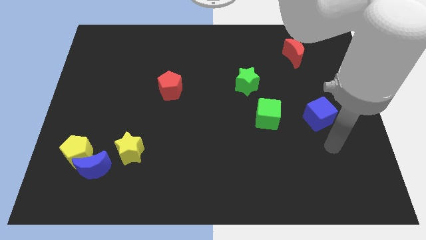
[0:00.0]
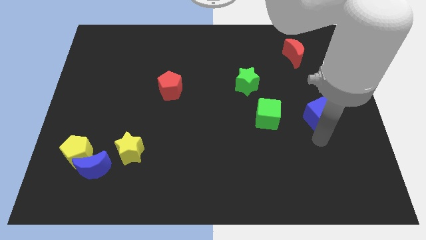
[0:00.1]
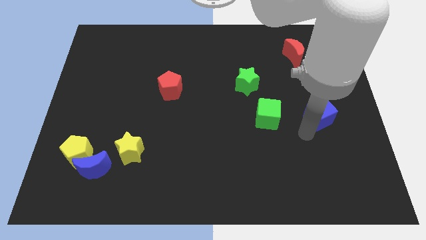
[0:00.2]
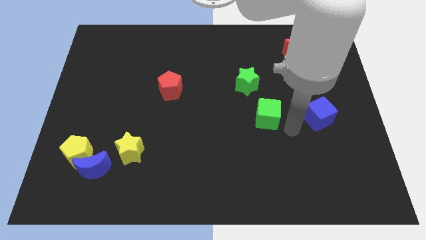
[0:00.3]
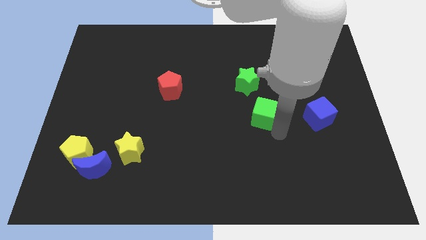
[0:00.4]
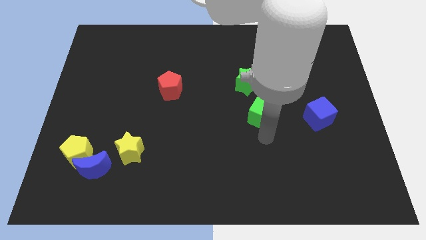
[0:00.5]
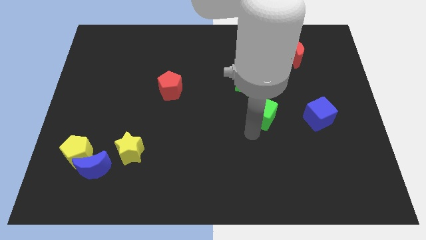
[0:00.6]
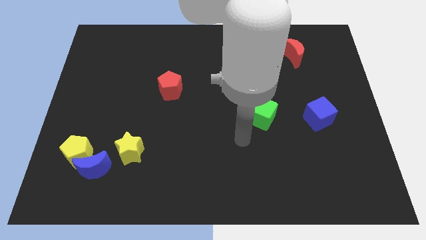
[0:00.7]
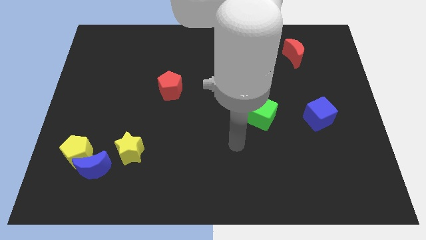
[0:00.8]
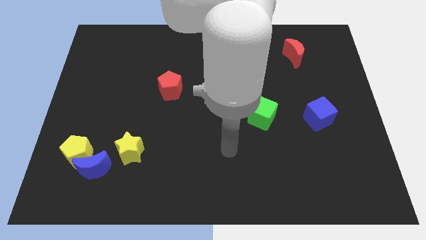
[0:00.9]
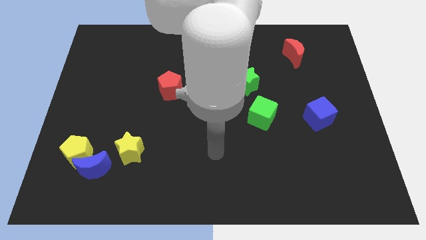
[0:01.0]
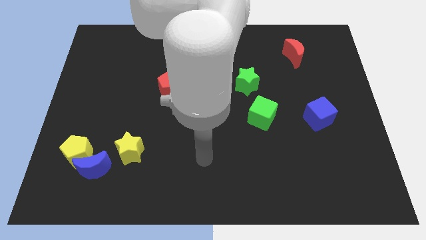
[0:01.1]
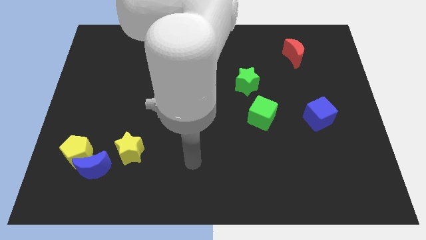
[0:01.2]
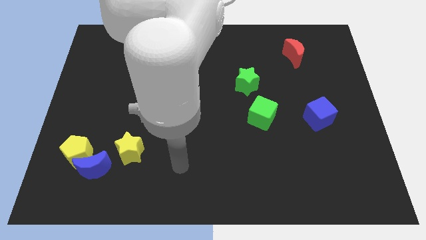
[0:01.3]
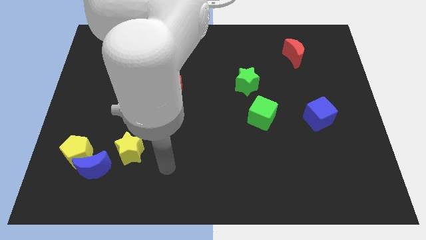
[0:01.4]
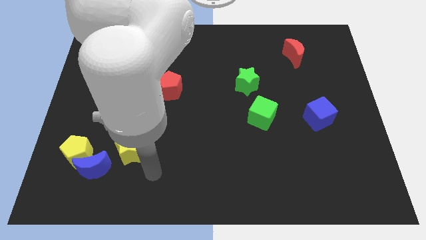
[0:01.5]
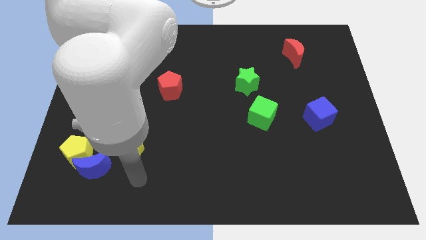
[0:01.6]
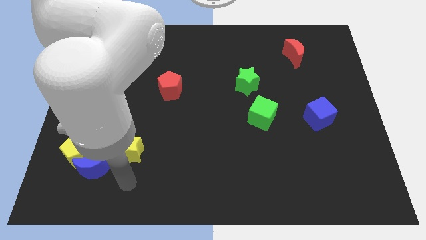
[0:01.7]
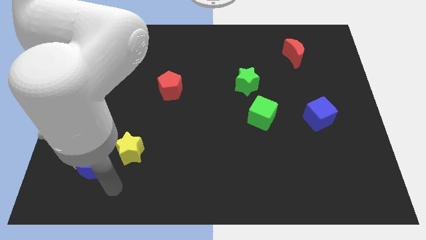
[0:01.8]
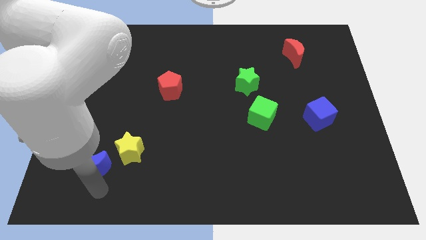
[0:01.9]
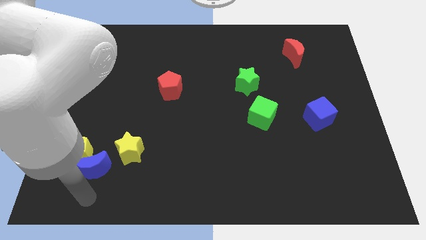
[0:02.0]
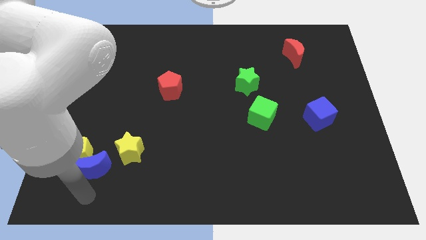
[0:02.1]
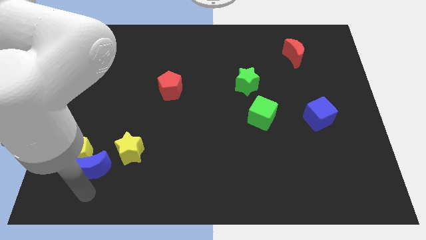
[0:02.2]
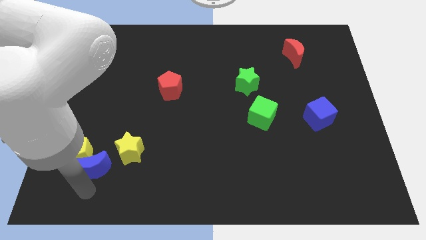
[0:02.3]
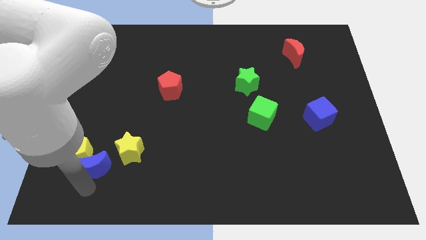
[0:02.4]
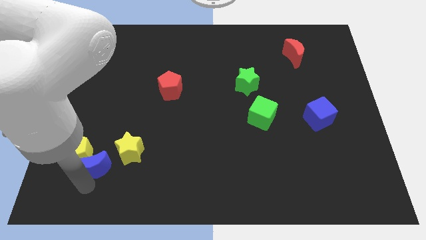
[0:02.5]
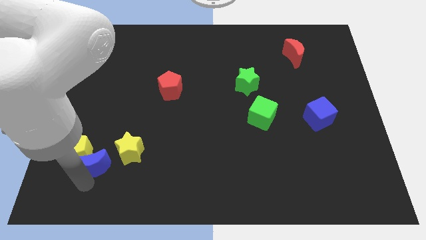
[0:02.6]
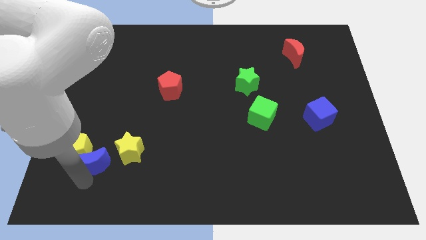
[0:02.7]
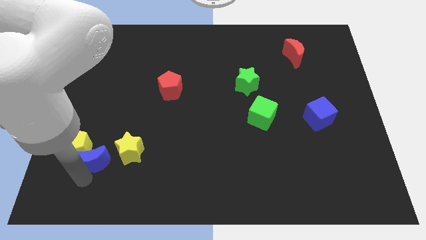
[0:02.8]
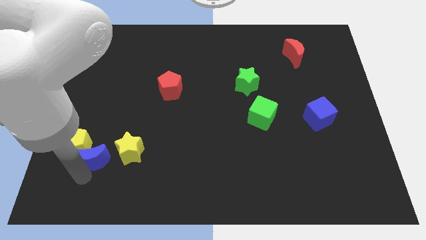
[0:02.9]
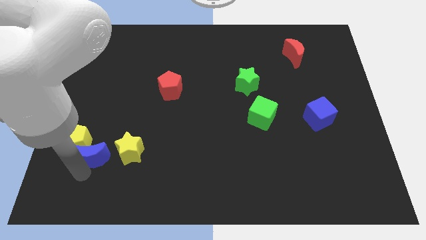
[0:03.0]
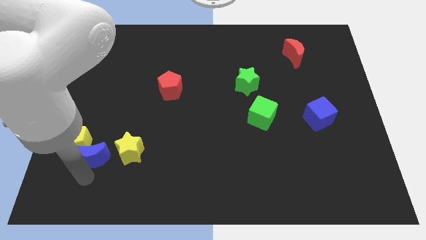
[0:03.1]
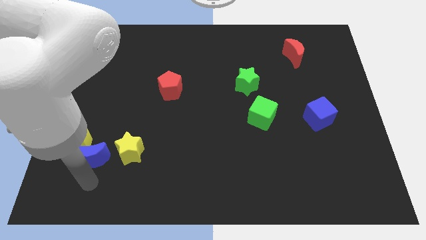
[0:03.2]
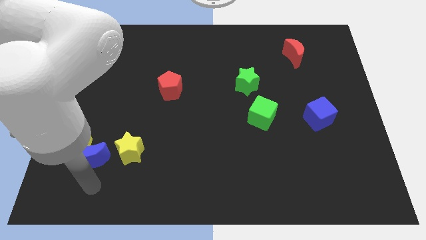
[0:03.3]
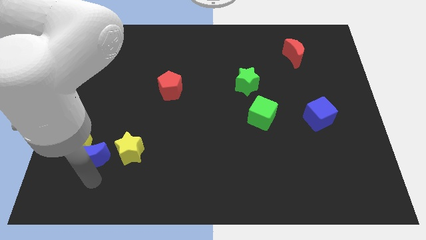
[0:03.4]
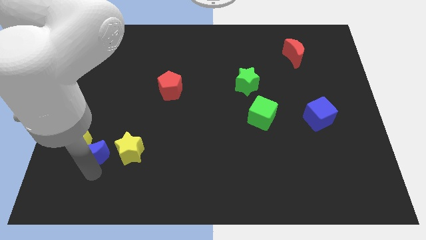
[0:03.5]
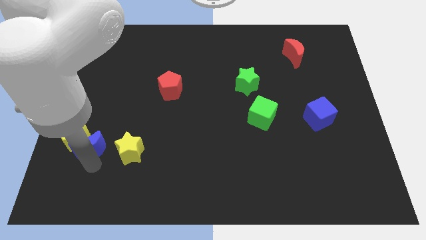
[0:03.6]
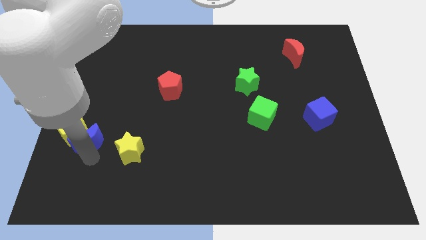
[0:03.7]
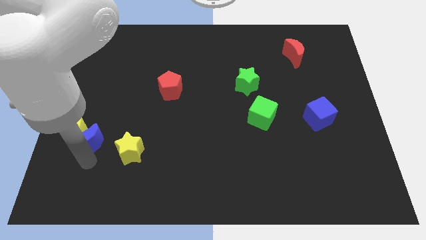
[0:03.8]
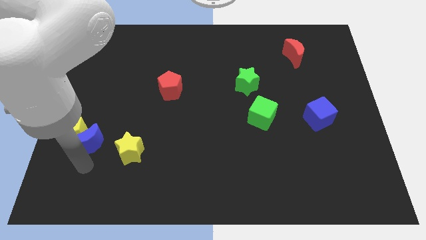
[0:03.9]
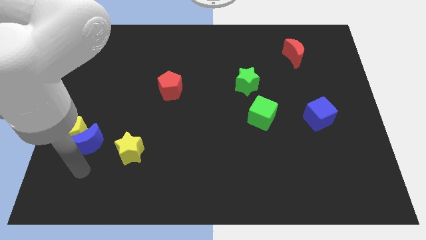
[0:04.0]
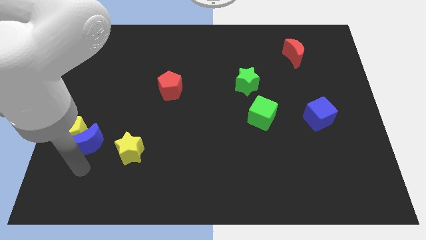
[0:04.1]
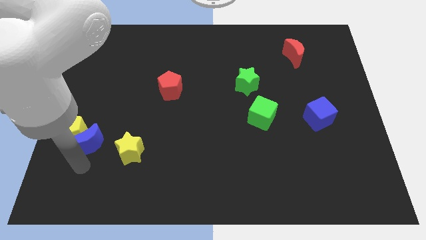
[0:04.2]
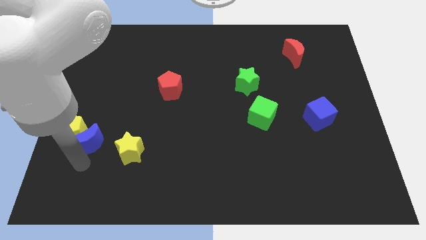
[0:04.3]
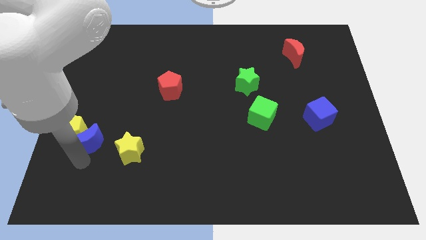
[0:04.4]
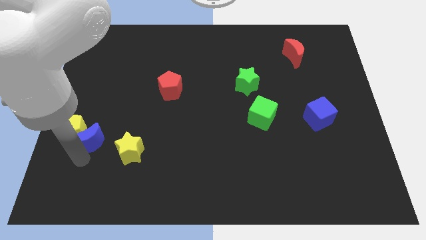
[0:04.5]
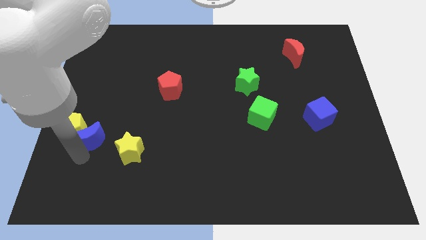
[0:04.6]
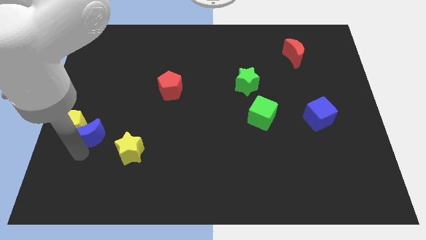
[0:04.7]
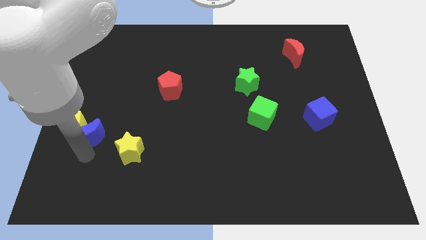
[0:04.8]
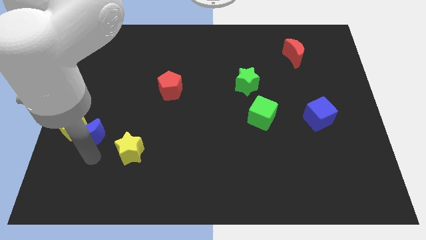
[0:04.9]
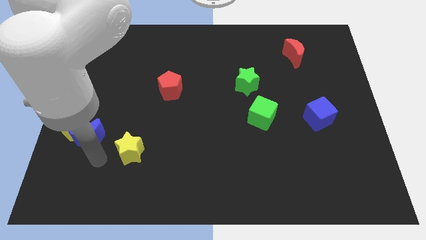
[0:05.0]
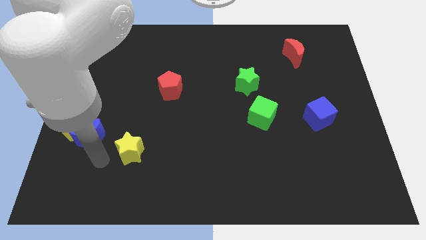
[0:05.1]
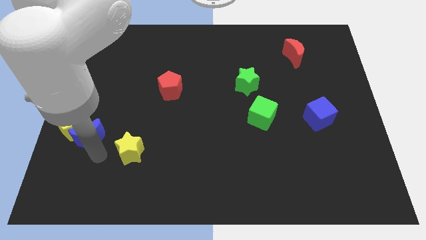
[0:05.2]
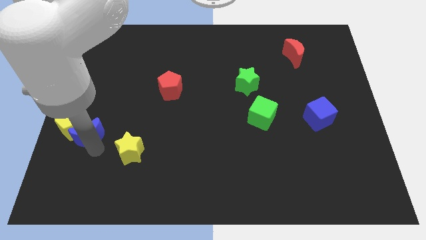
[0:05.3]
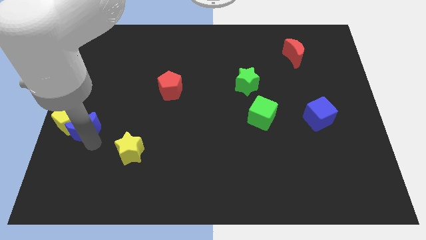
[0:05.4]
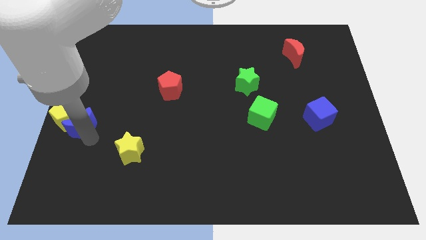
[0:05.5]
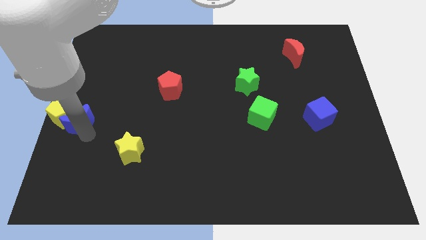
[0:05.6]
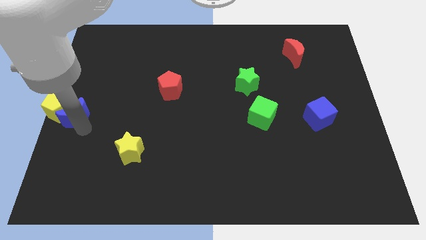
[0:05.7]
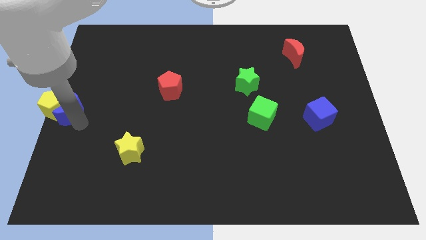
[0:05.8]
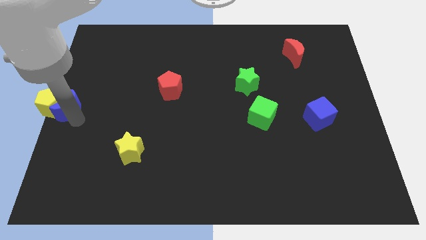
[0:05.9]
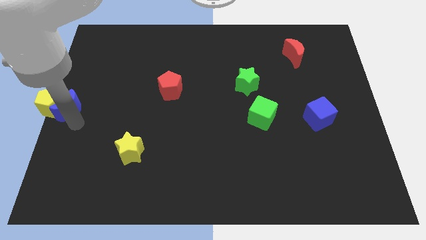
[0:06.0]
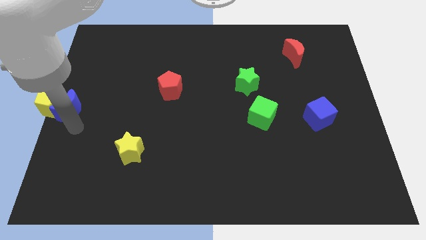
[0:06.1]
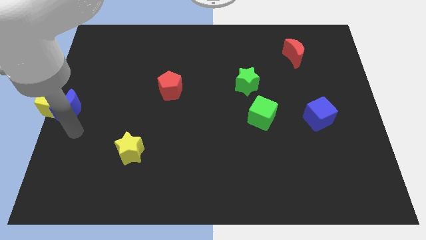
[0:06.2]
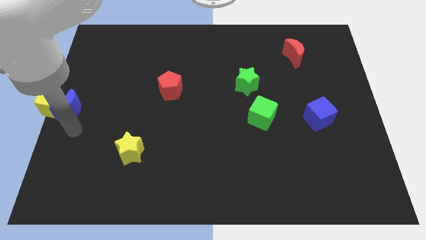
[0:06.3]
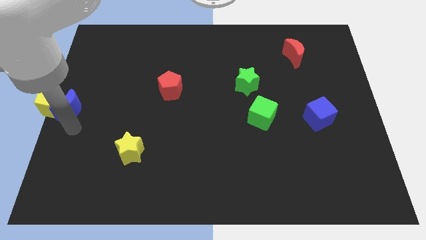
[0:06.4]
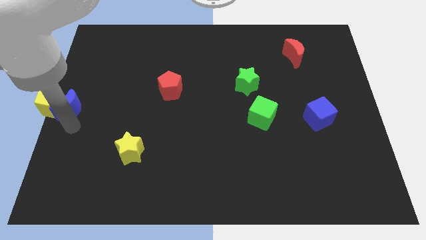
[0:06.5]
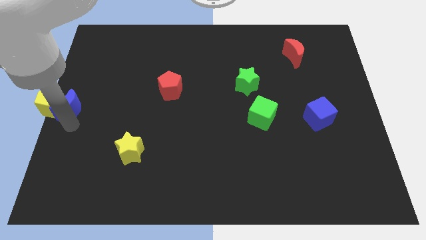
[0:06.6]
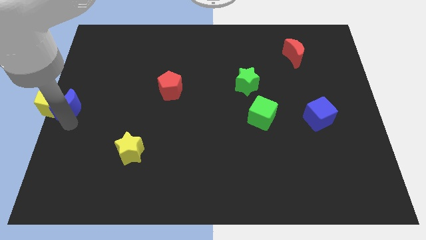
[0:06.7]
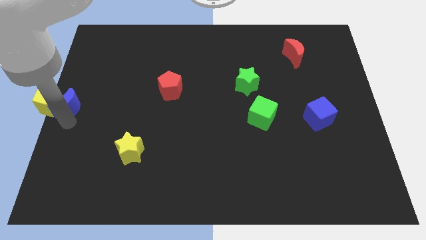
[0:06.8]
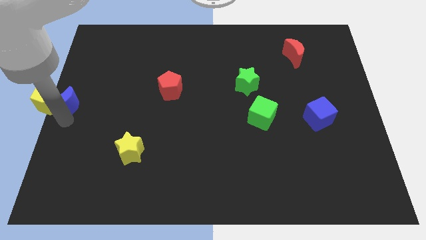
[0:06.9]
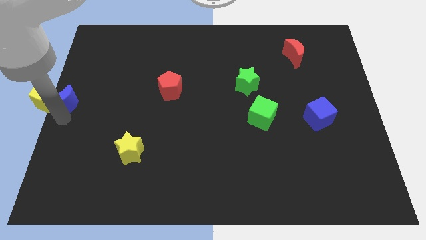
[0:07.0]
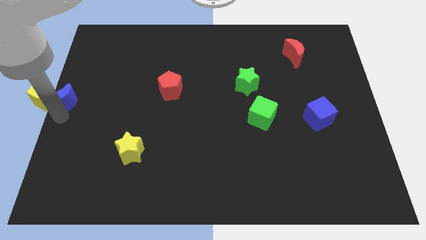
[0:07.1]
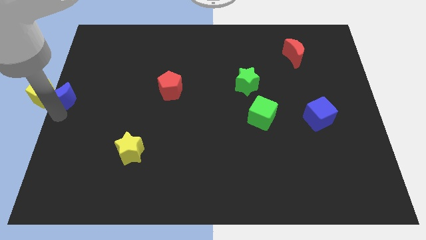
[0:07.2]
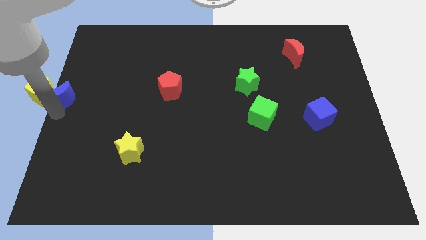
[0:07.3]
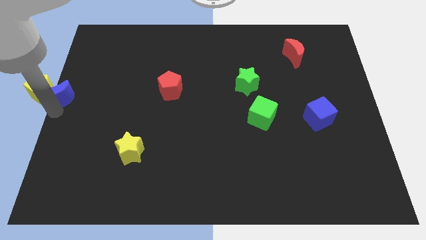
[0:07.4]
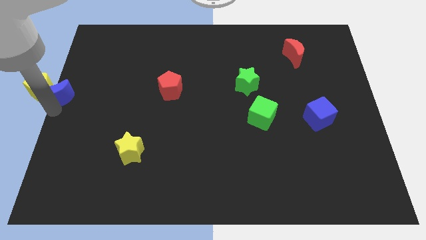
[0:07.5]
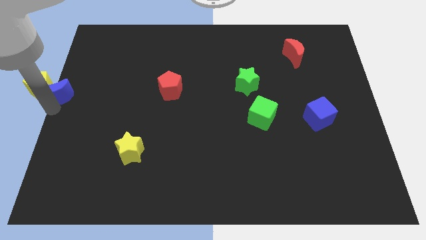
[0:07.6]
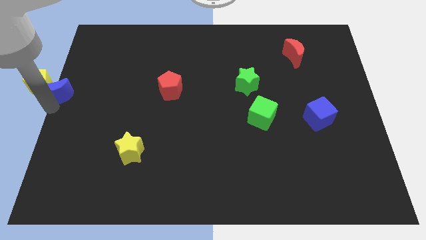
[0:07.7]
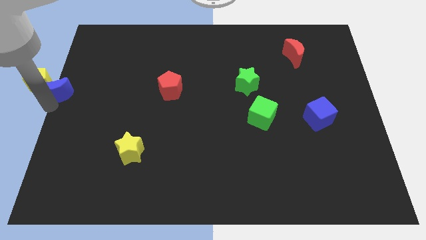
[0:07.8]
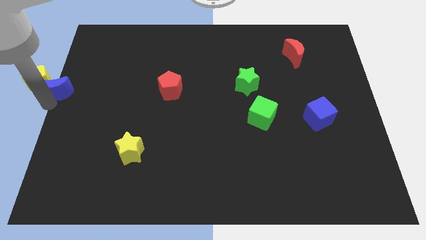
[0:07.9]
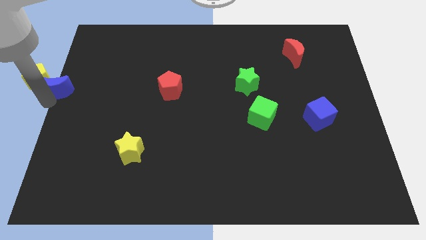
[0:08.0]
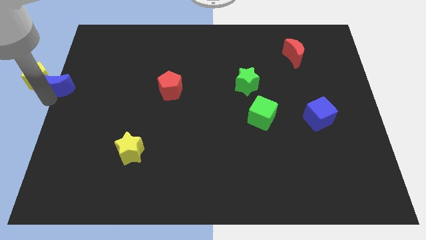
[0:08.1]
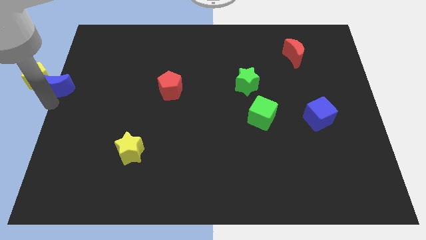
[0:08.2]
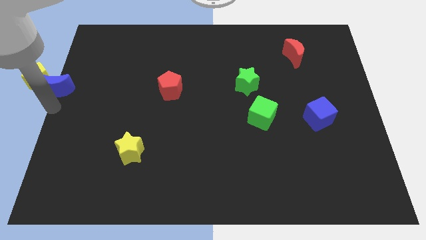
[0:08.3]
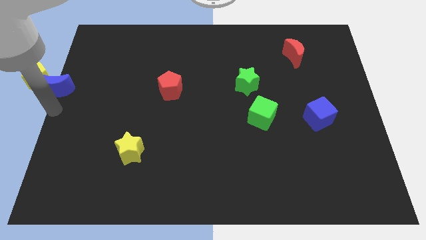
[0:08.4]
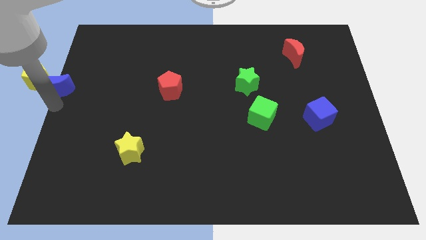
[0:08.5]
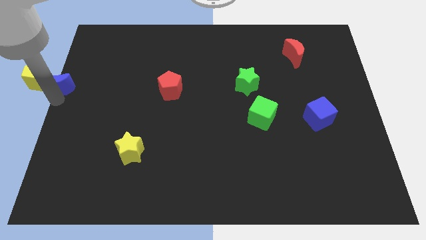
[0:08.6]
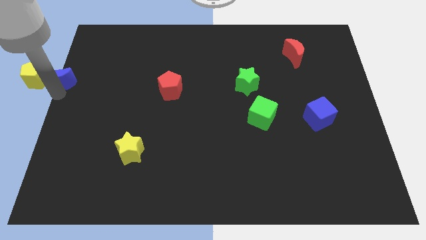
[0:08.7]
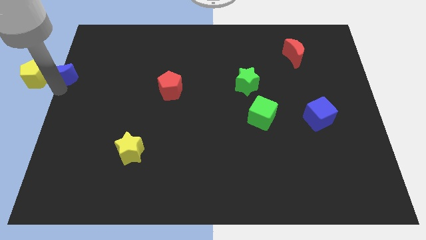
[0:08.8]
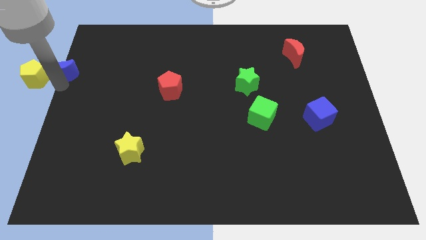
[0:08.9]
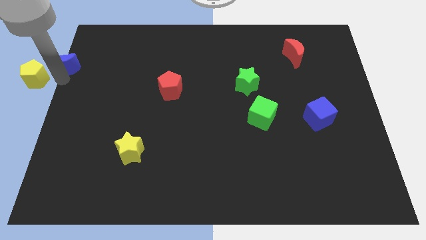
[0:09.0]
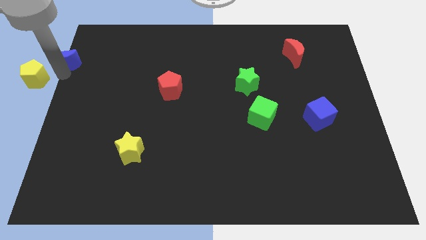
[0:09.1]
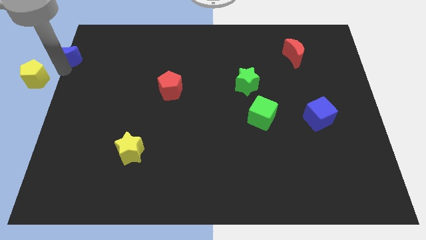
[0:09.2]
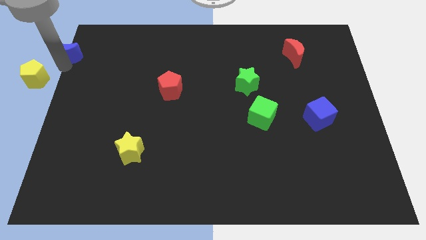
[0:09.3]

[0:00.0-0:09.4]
push the blue moon to the top left
